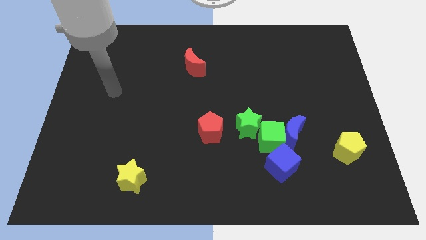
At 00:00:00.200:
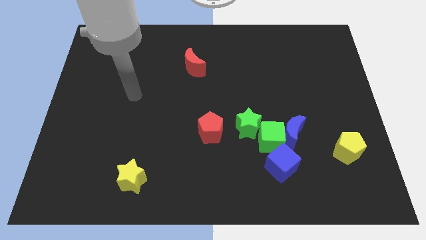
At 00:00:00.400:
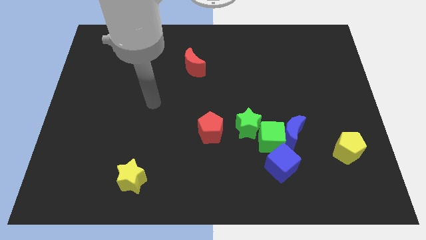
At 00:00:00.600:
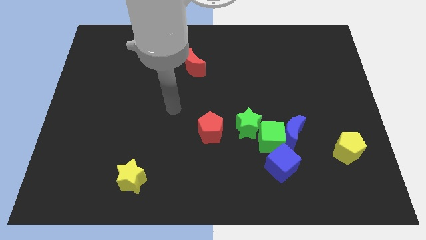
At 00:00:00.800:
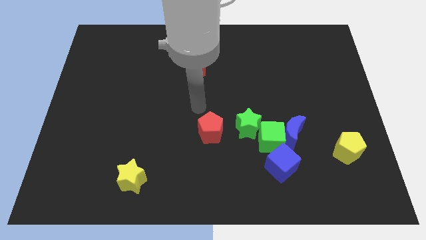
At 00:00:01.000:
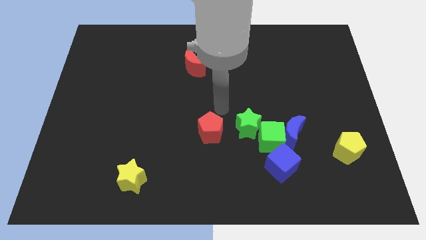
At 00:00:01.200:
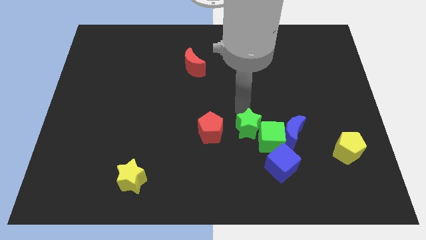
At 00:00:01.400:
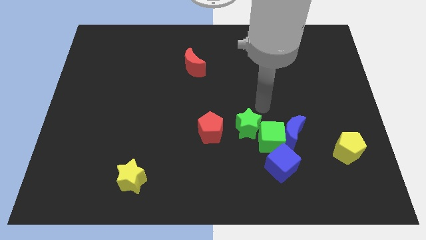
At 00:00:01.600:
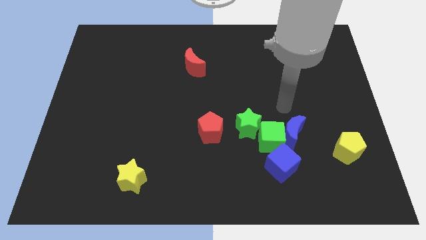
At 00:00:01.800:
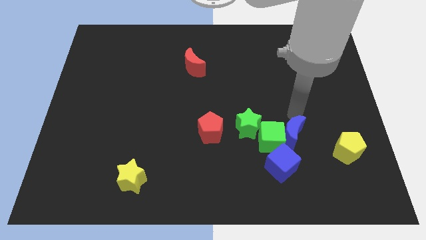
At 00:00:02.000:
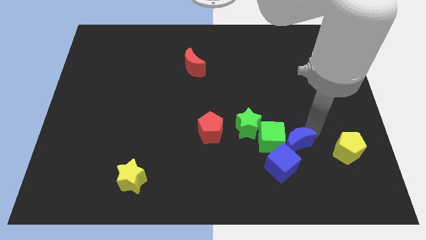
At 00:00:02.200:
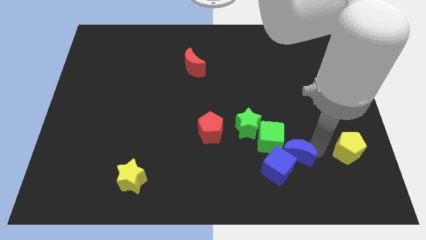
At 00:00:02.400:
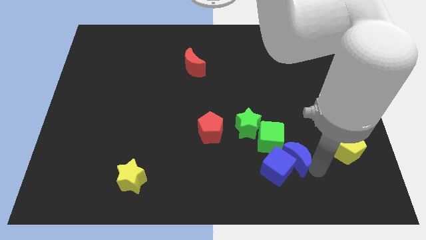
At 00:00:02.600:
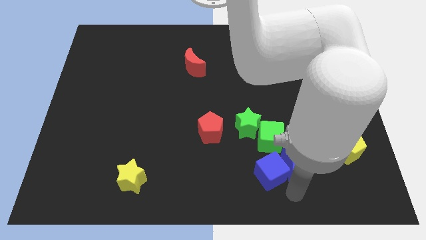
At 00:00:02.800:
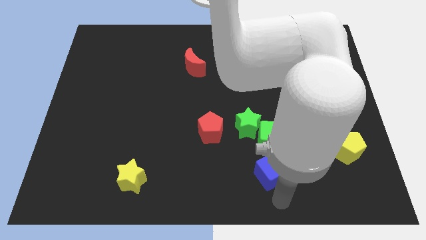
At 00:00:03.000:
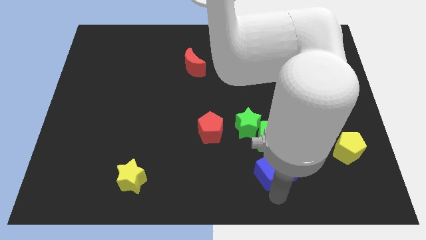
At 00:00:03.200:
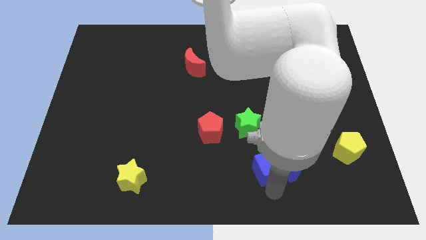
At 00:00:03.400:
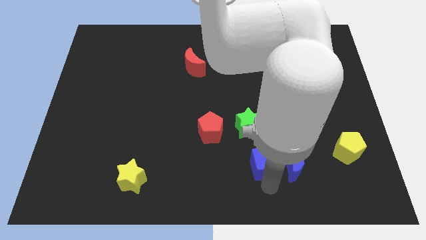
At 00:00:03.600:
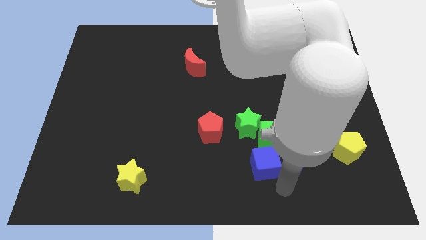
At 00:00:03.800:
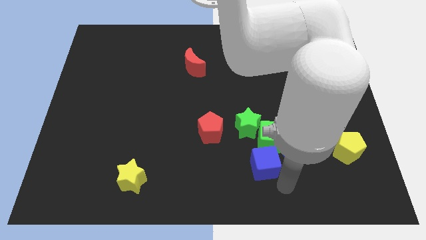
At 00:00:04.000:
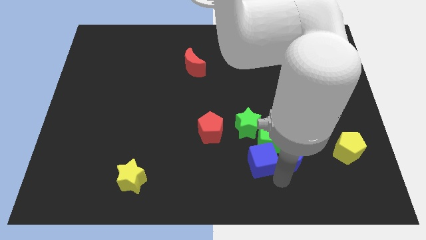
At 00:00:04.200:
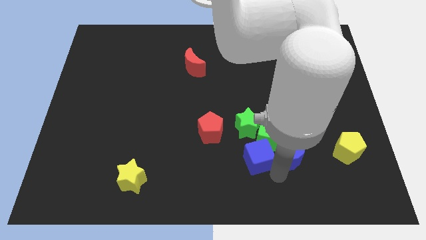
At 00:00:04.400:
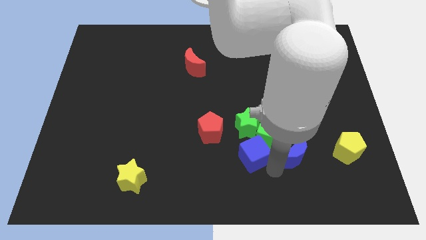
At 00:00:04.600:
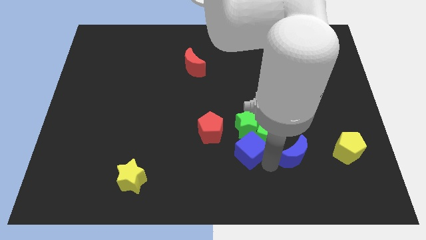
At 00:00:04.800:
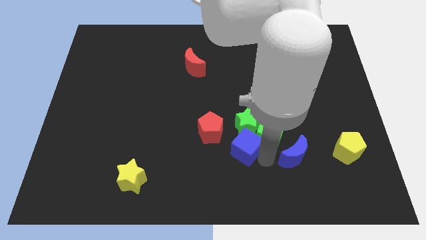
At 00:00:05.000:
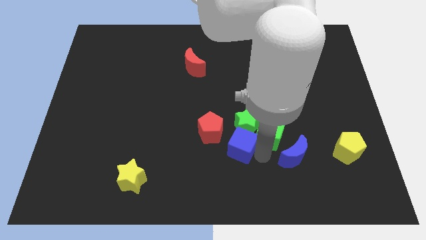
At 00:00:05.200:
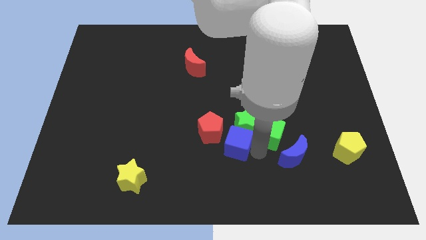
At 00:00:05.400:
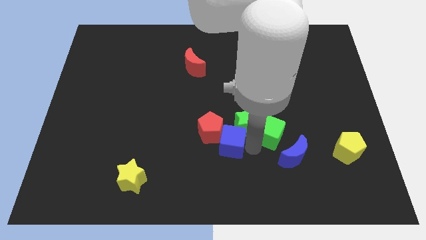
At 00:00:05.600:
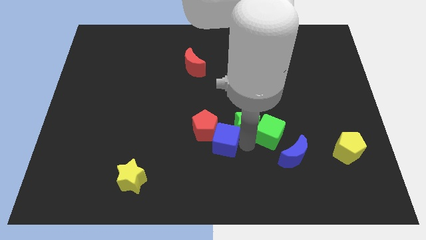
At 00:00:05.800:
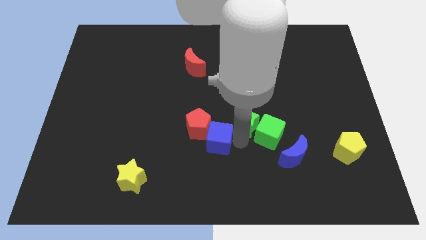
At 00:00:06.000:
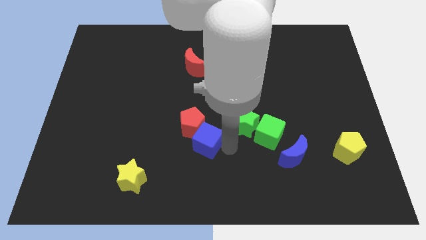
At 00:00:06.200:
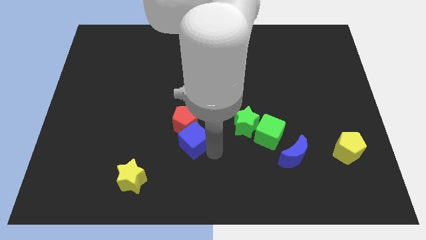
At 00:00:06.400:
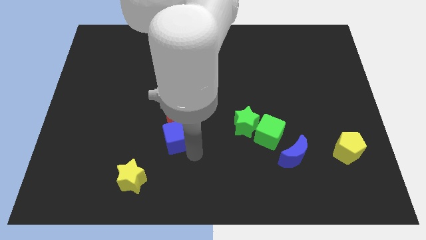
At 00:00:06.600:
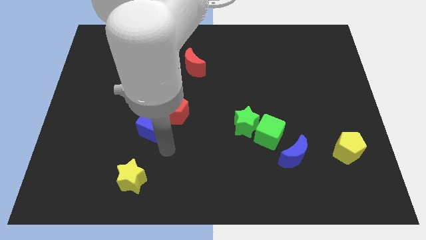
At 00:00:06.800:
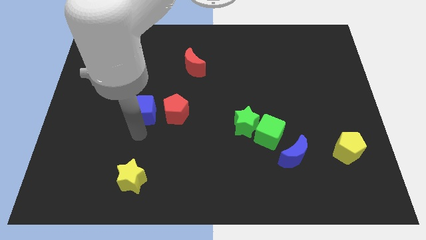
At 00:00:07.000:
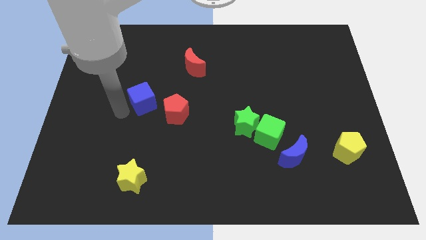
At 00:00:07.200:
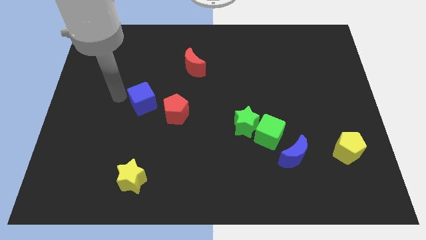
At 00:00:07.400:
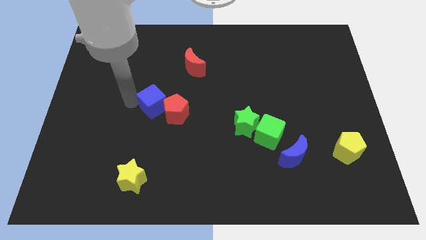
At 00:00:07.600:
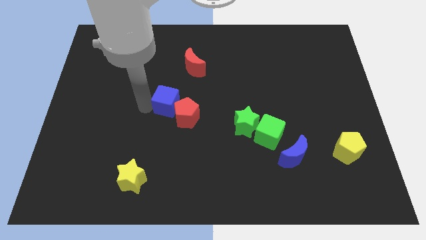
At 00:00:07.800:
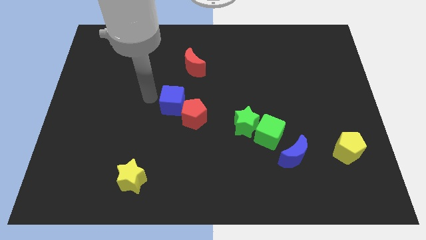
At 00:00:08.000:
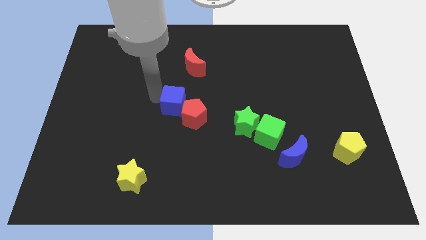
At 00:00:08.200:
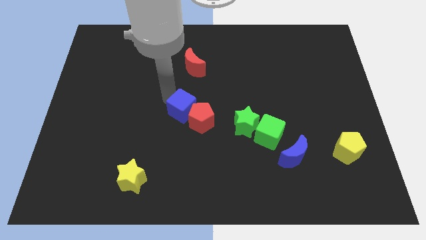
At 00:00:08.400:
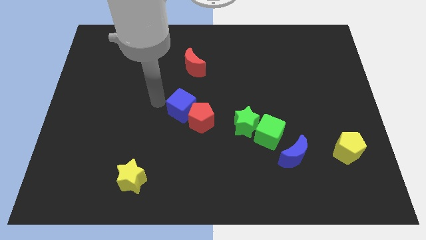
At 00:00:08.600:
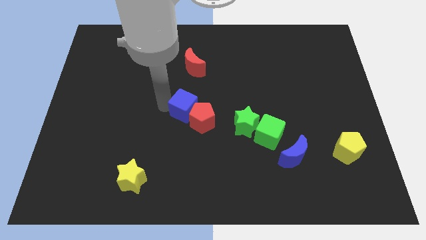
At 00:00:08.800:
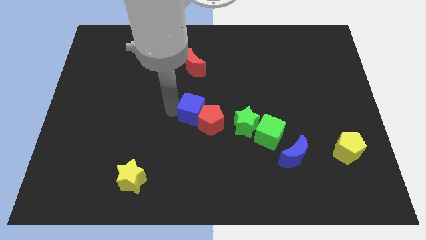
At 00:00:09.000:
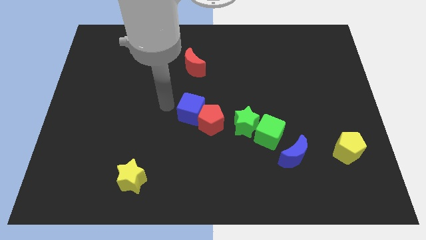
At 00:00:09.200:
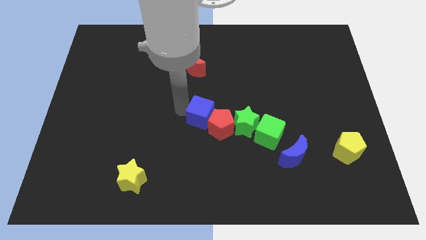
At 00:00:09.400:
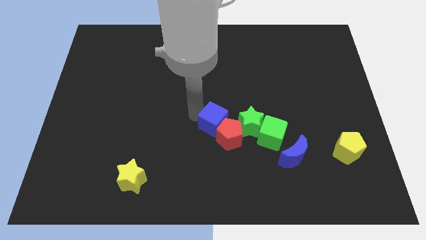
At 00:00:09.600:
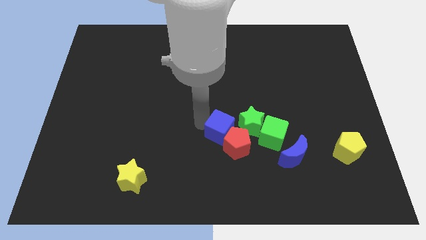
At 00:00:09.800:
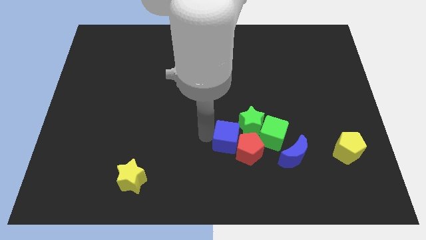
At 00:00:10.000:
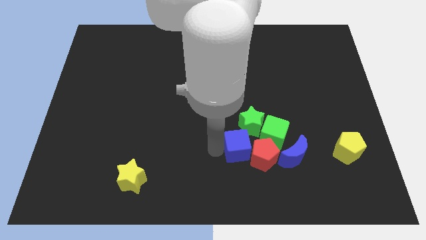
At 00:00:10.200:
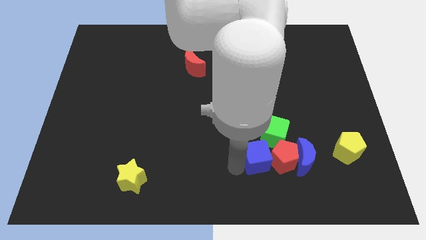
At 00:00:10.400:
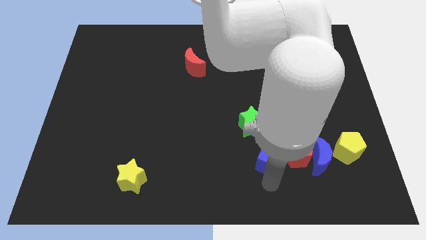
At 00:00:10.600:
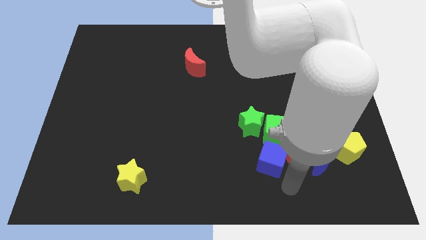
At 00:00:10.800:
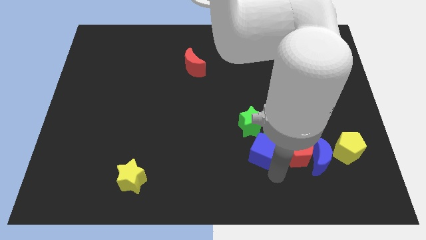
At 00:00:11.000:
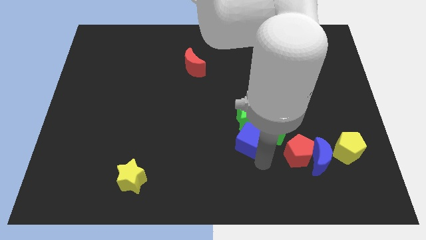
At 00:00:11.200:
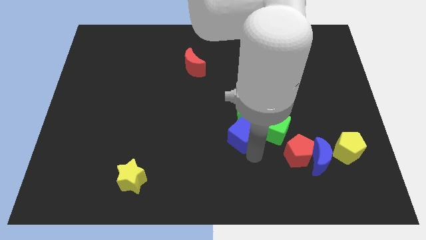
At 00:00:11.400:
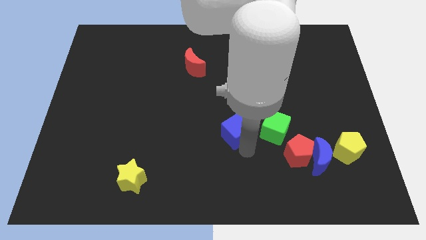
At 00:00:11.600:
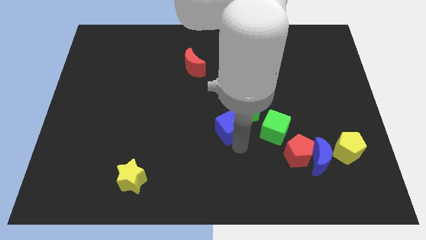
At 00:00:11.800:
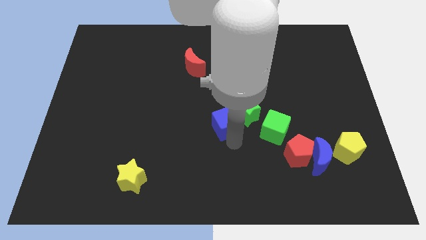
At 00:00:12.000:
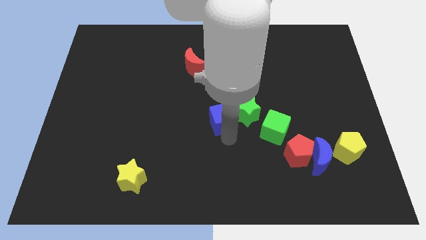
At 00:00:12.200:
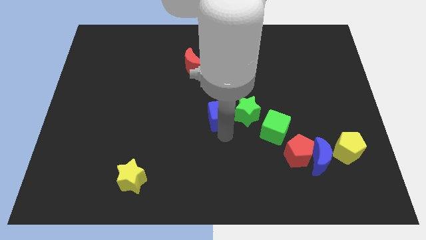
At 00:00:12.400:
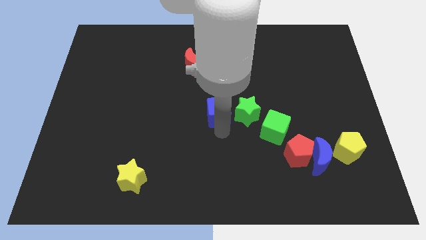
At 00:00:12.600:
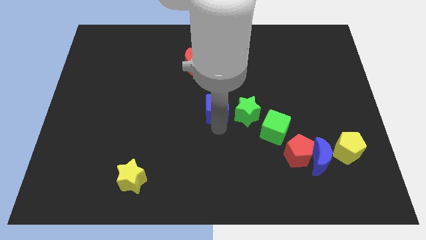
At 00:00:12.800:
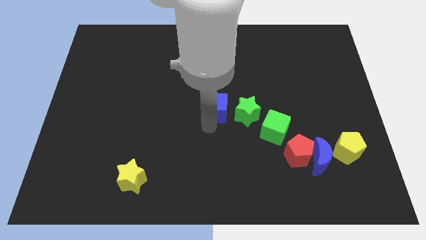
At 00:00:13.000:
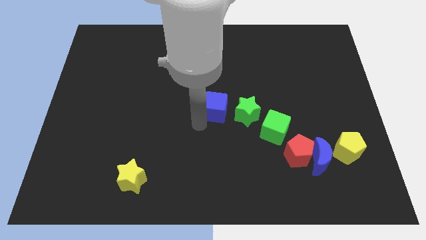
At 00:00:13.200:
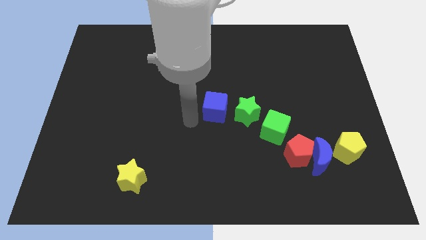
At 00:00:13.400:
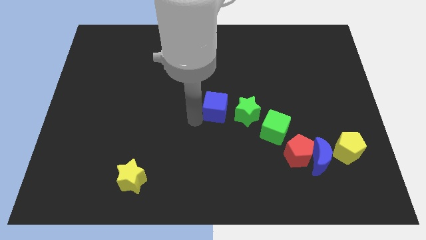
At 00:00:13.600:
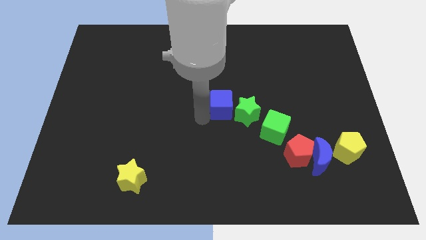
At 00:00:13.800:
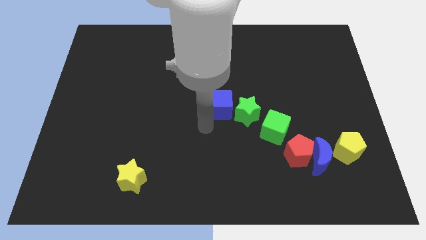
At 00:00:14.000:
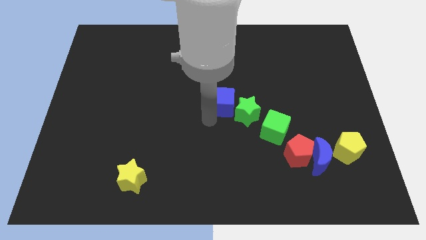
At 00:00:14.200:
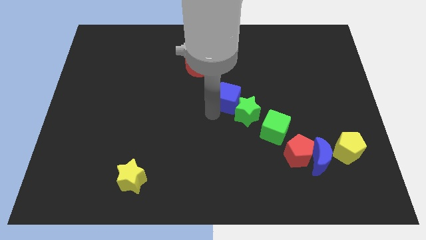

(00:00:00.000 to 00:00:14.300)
push the blue cube to the top of the green star
